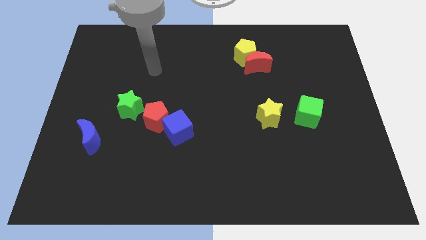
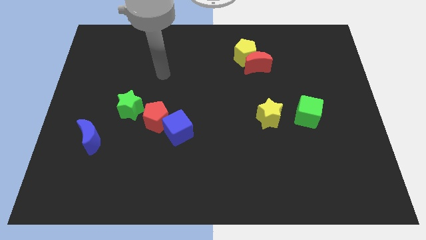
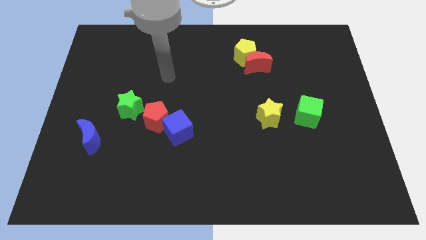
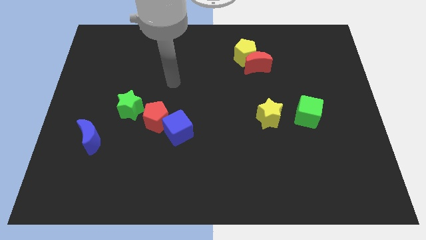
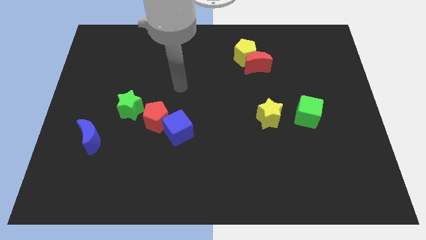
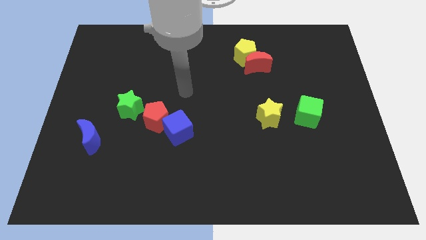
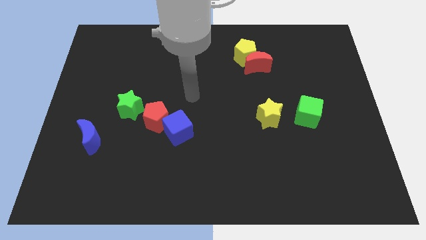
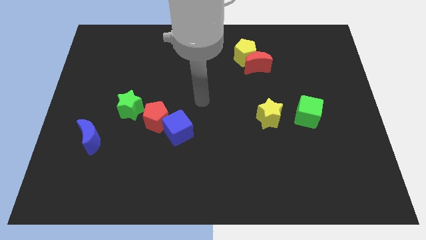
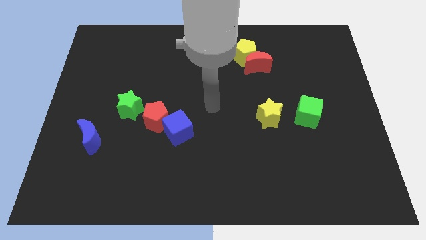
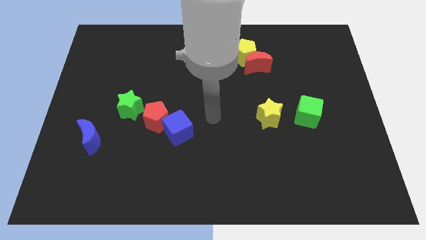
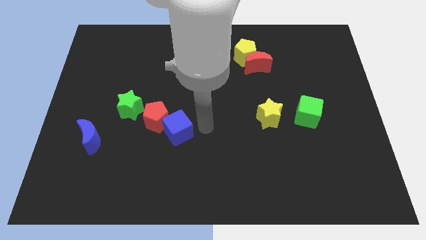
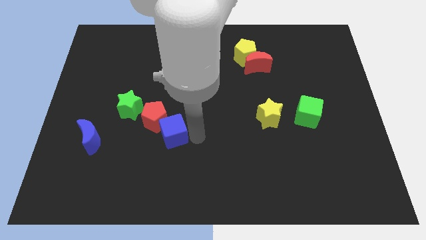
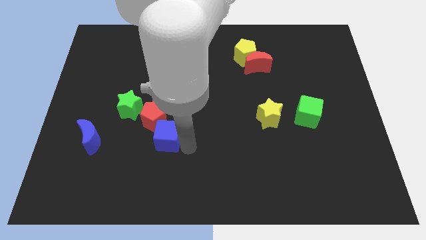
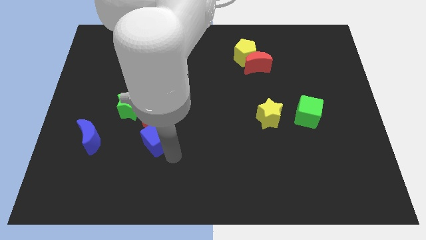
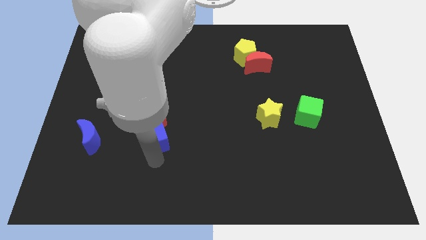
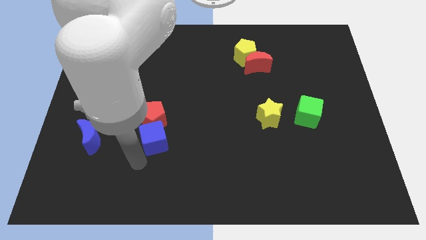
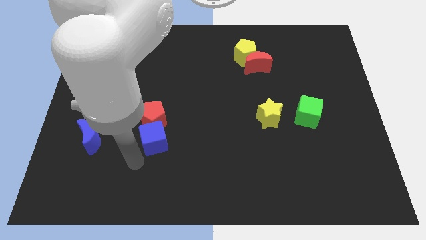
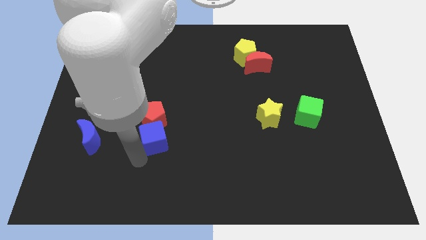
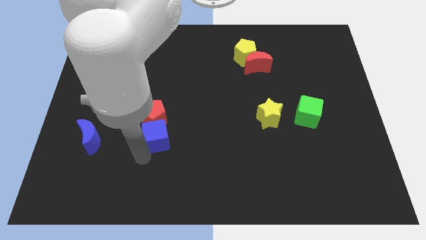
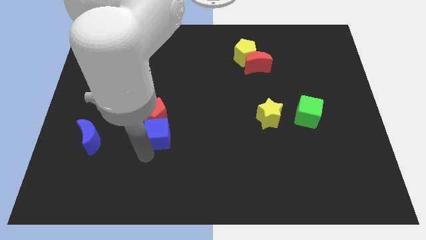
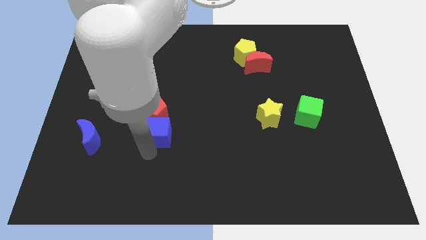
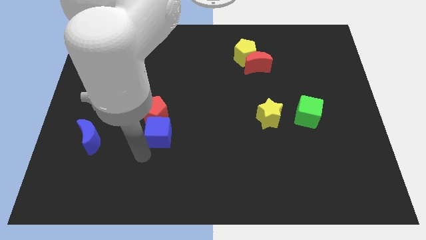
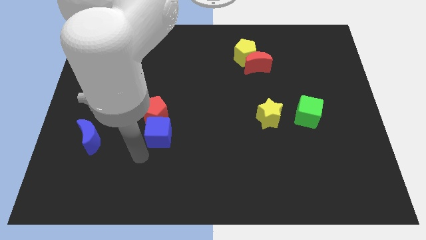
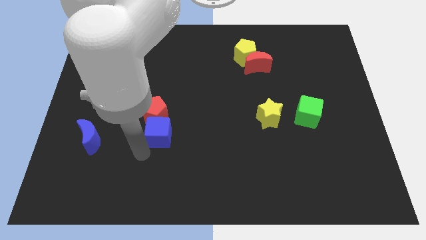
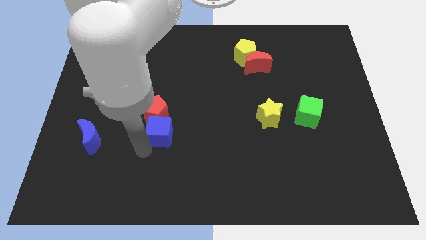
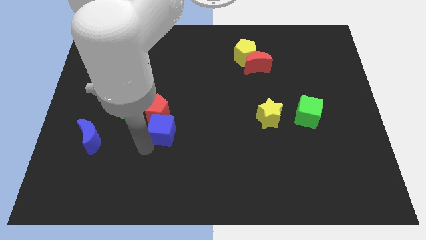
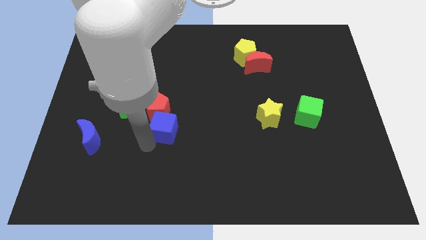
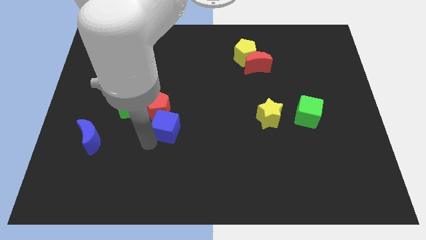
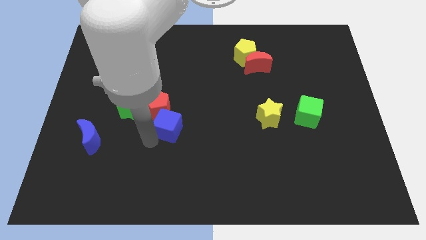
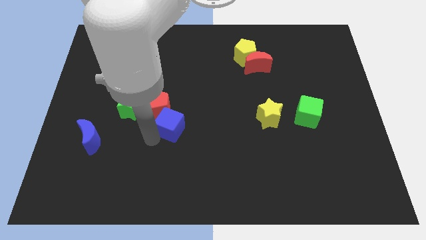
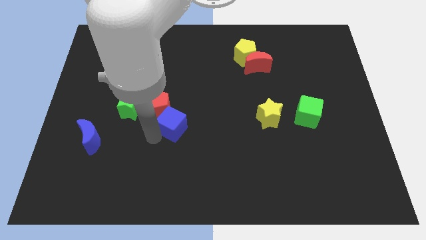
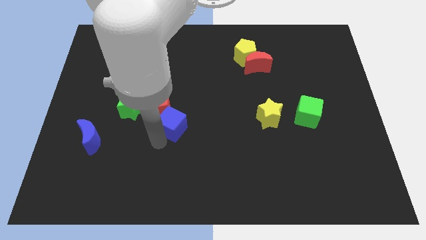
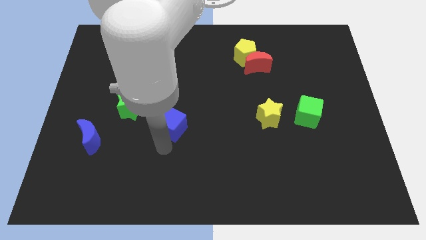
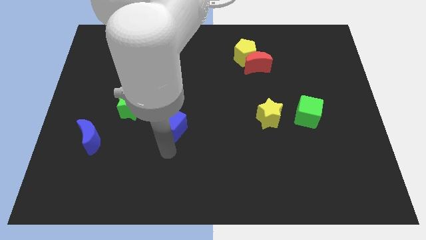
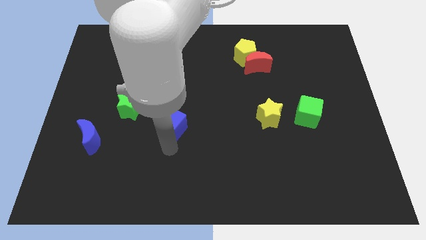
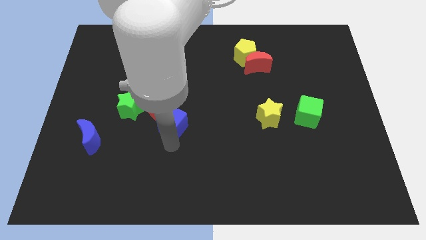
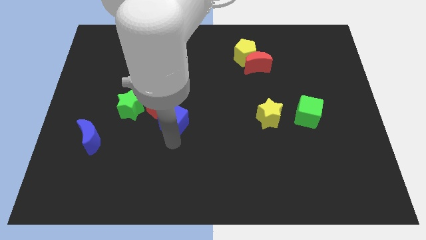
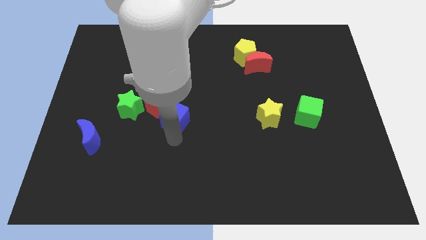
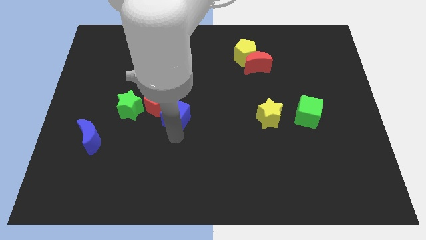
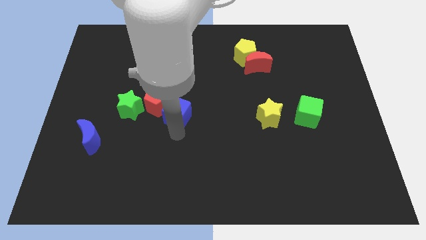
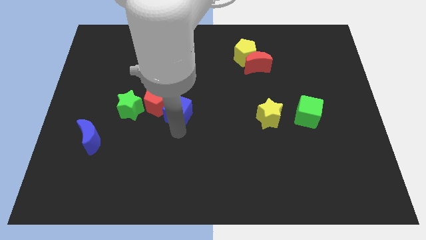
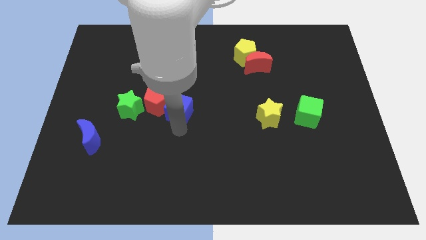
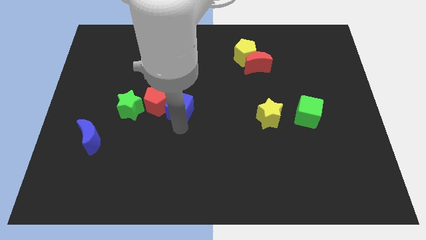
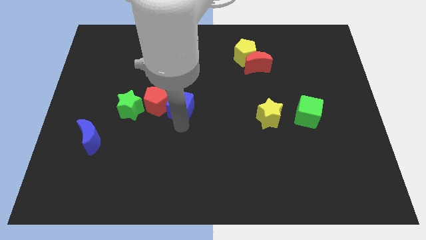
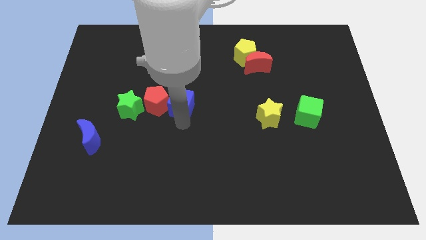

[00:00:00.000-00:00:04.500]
push the blue cube a bit upwards

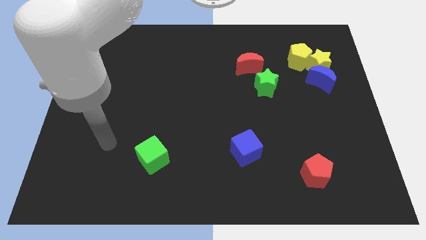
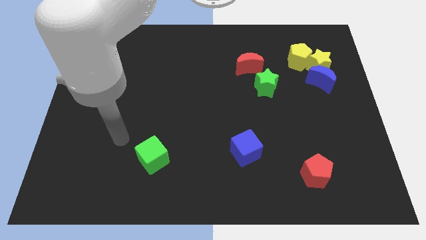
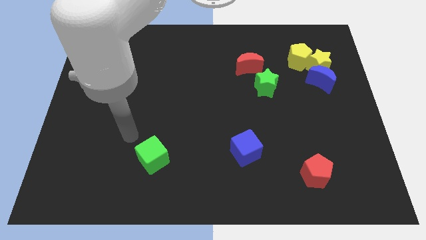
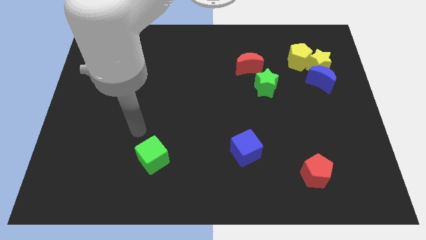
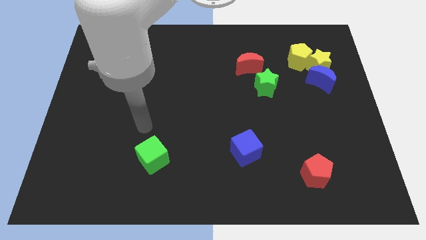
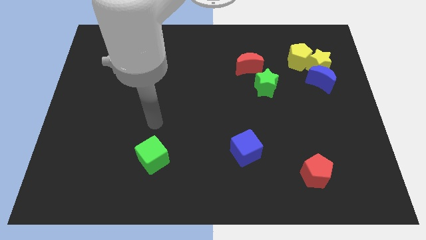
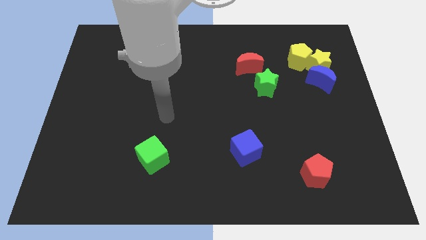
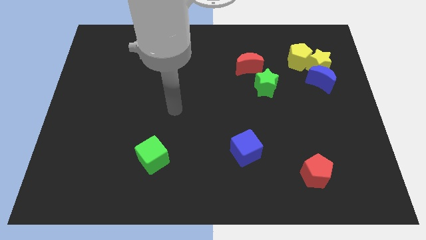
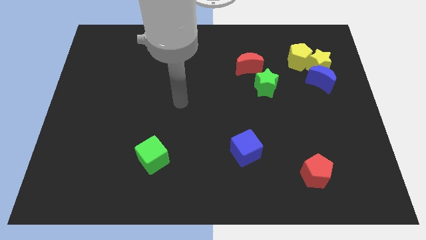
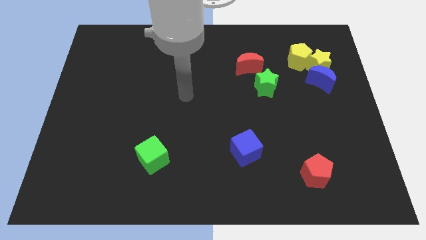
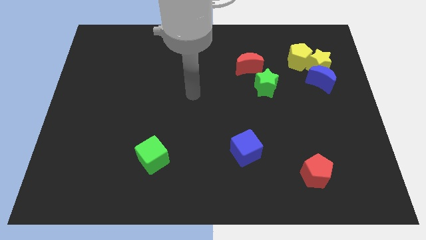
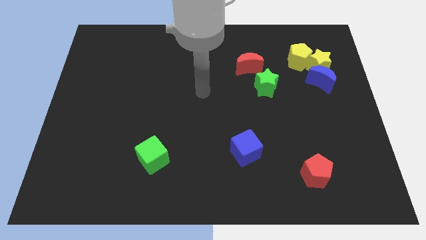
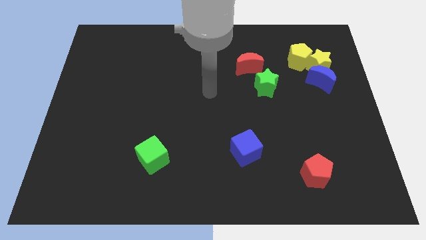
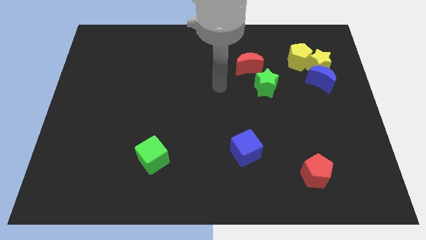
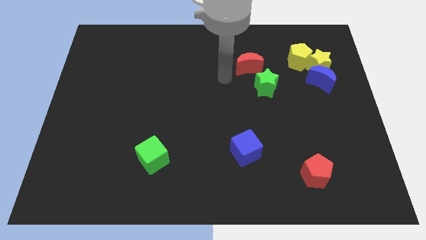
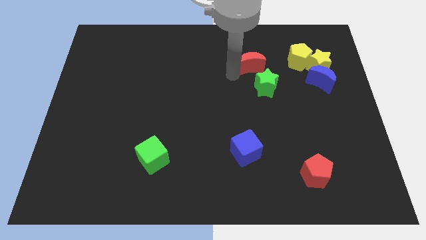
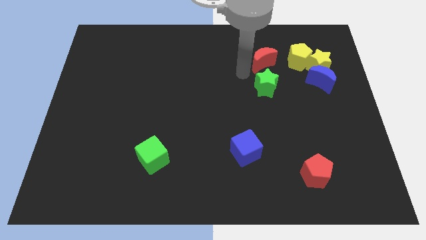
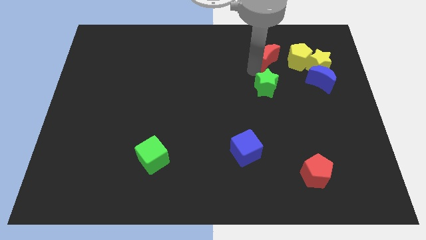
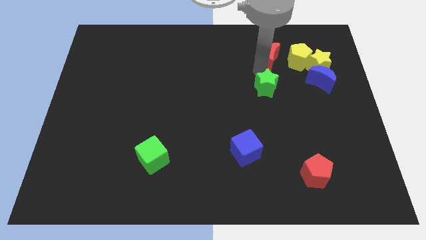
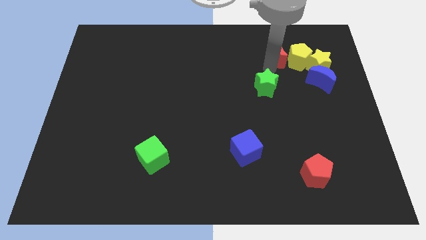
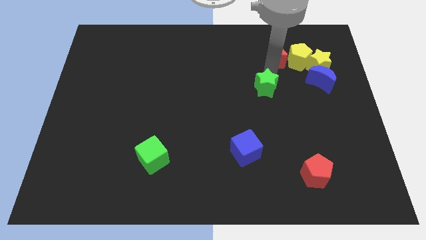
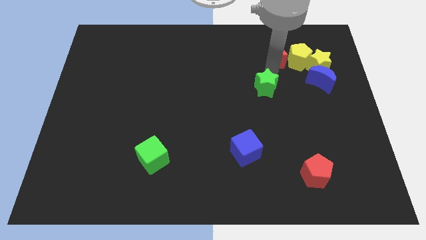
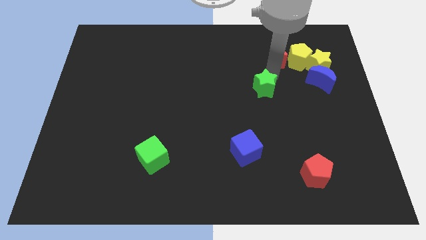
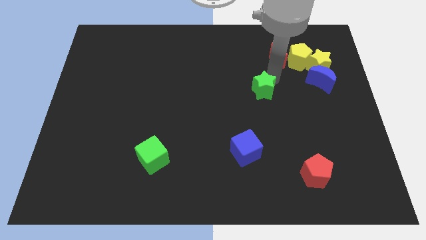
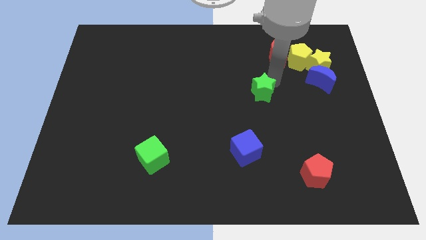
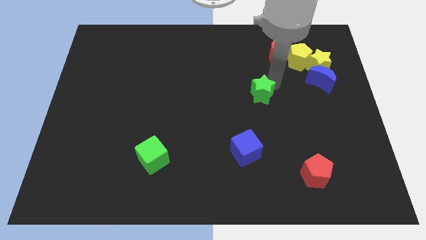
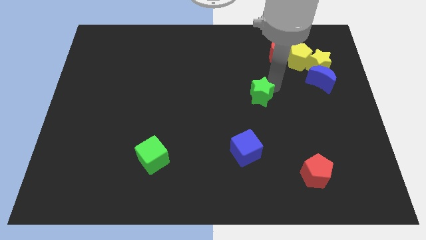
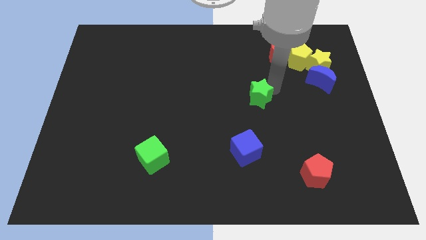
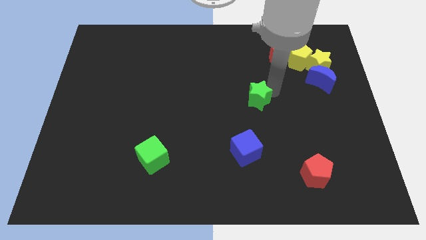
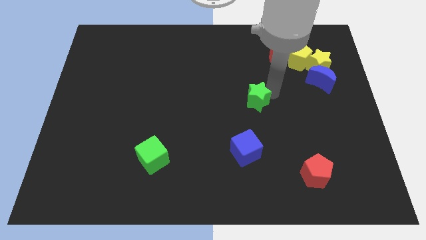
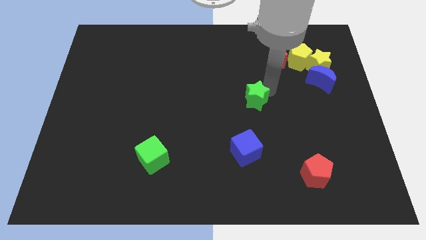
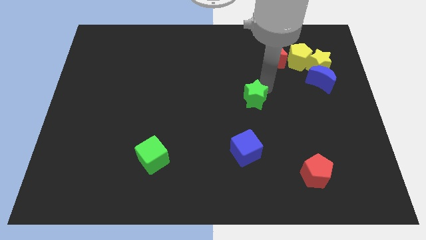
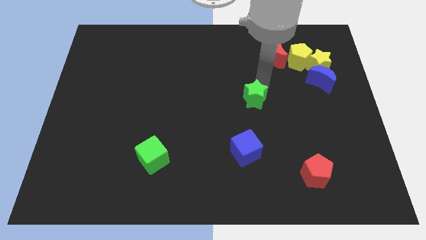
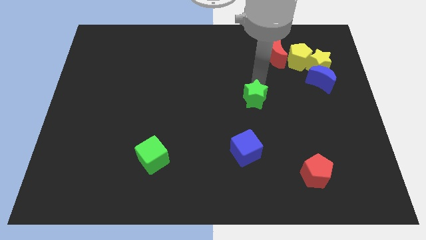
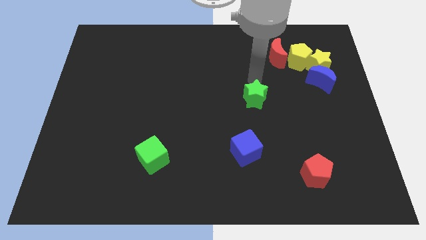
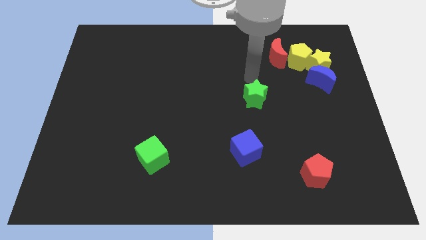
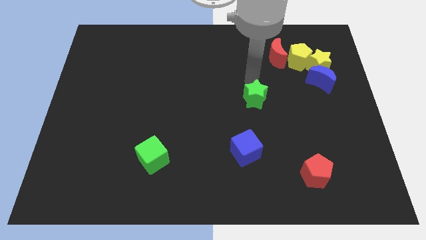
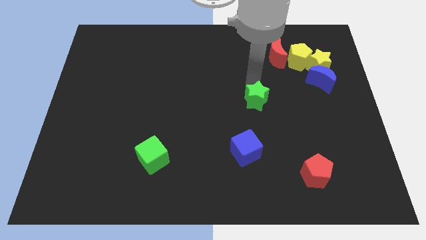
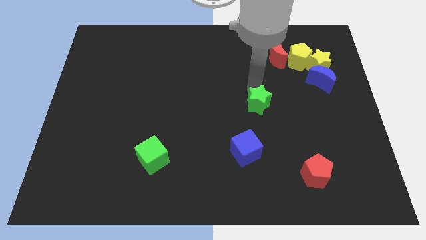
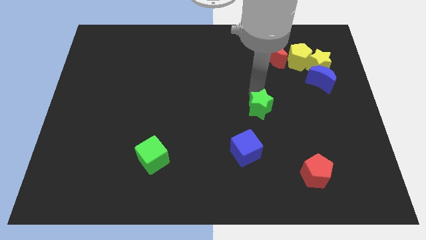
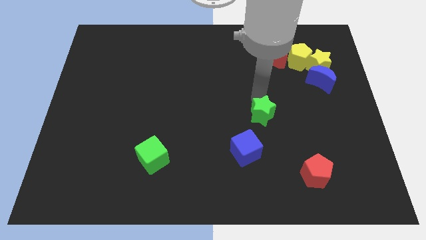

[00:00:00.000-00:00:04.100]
push the green star downwards a little bit
